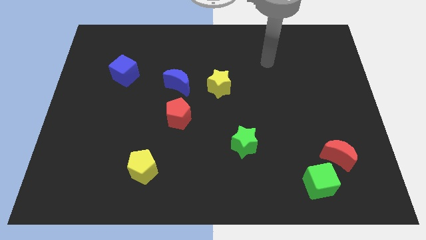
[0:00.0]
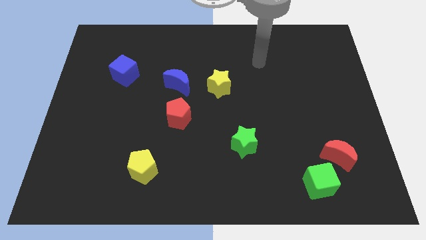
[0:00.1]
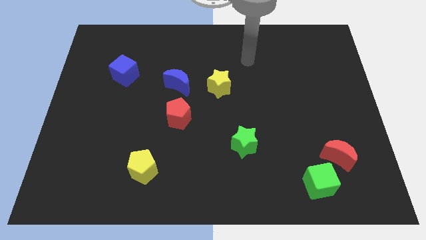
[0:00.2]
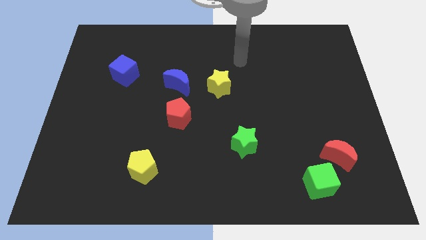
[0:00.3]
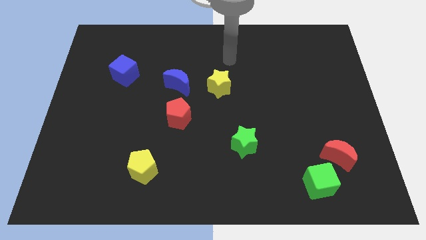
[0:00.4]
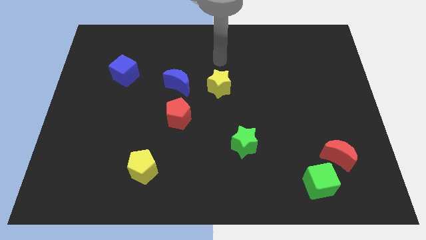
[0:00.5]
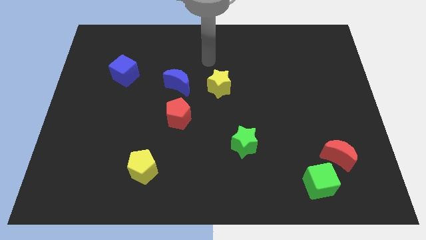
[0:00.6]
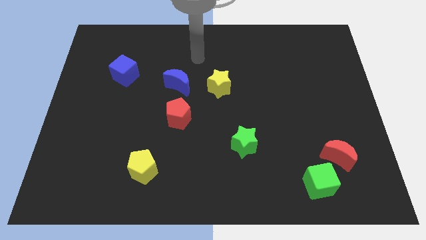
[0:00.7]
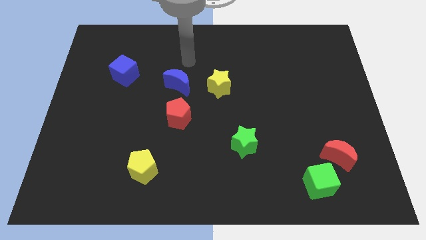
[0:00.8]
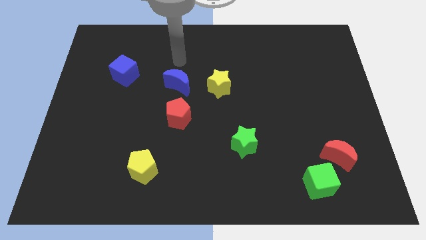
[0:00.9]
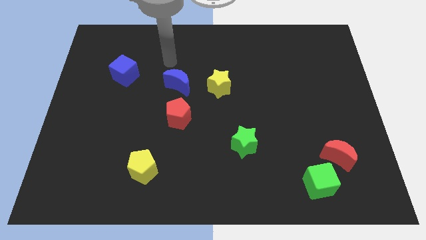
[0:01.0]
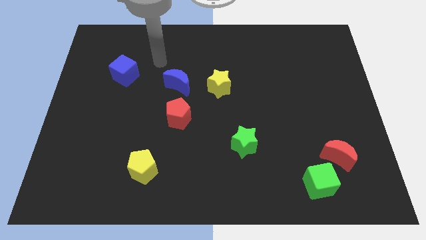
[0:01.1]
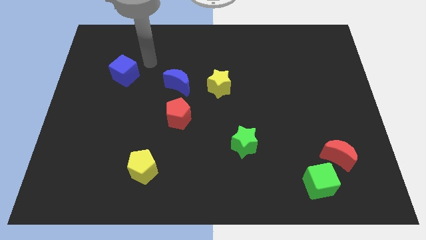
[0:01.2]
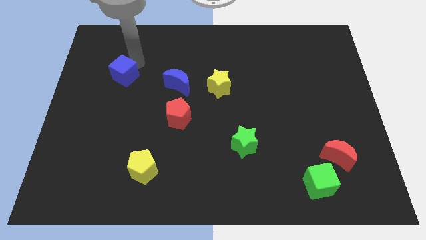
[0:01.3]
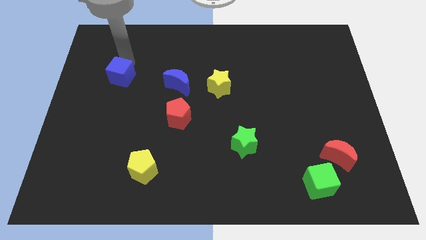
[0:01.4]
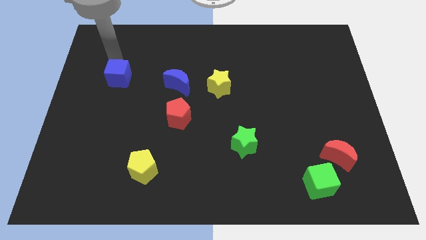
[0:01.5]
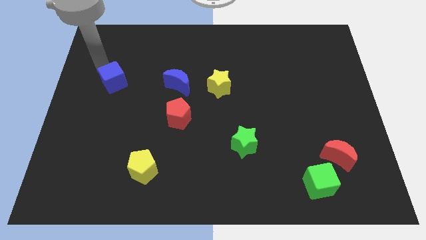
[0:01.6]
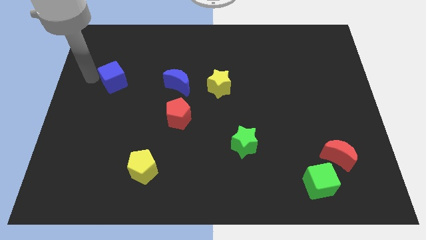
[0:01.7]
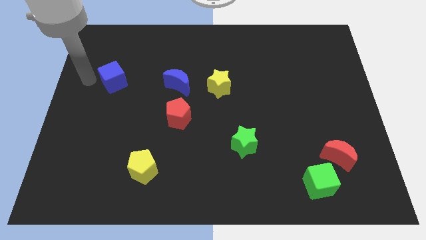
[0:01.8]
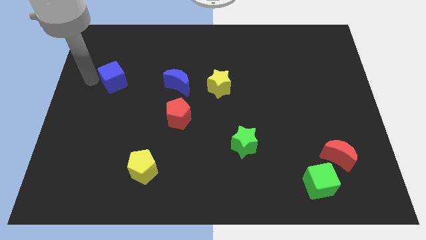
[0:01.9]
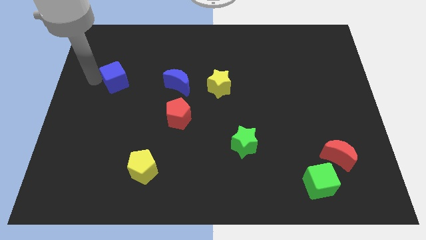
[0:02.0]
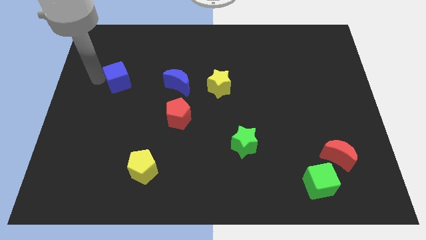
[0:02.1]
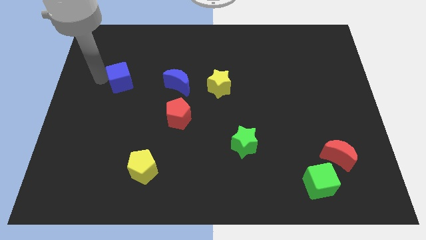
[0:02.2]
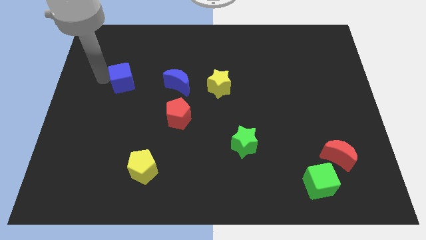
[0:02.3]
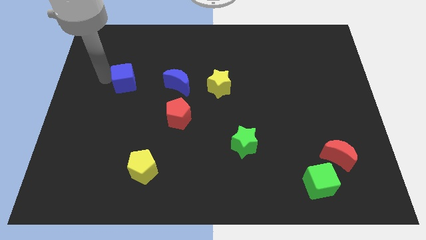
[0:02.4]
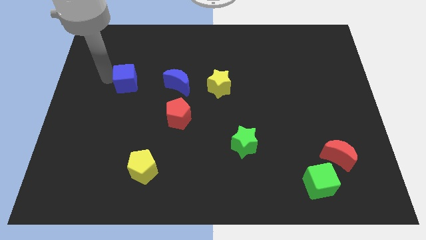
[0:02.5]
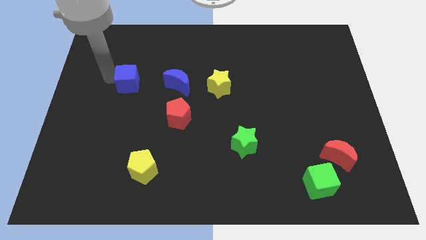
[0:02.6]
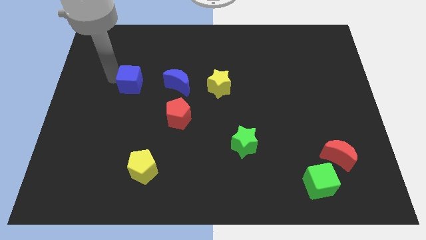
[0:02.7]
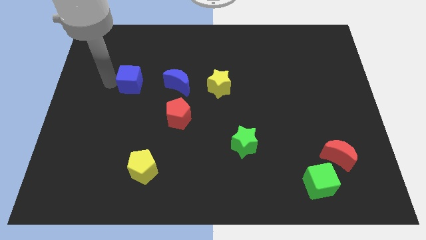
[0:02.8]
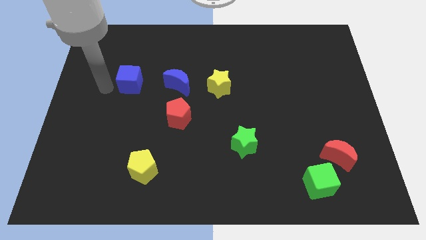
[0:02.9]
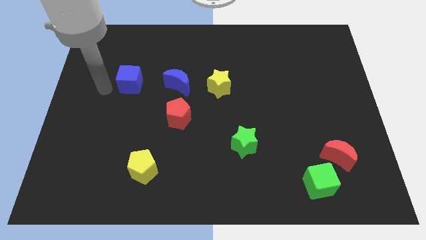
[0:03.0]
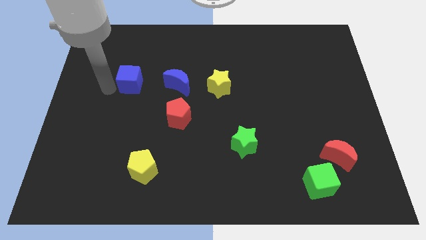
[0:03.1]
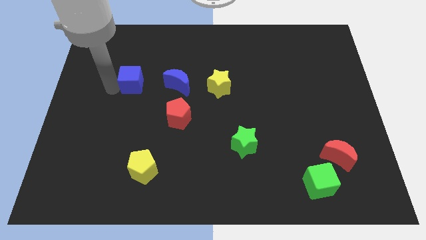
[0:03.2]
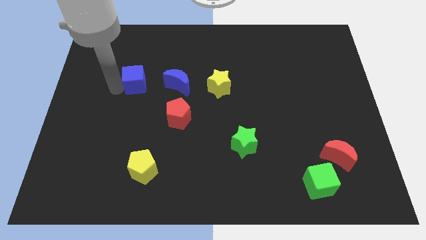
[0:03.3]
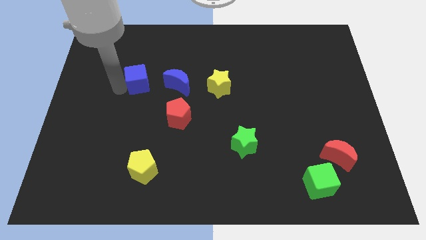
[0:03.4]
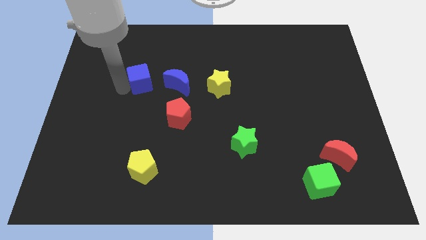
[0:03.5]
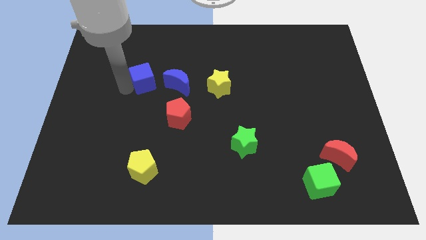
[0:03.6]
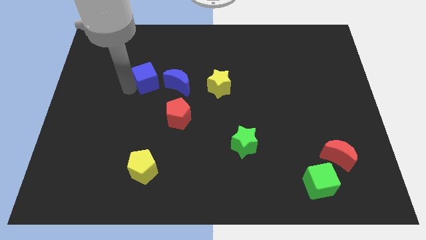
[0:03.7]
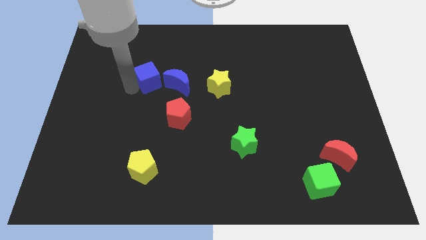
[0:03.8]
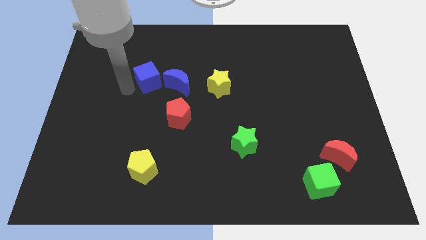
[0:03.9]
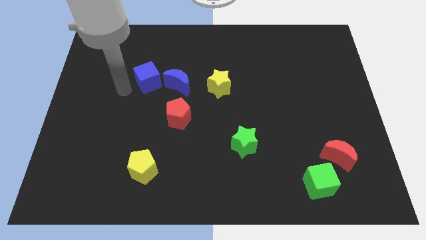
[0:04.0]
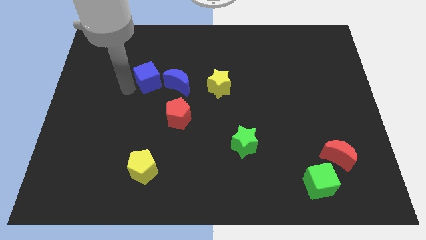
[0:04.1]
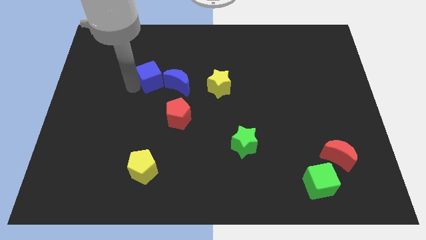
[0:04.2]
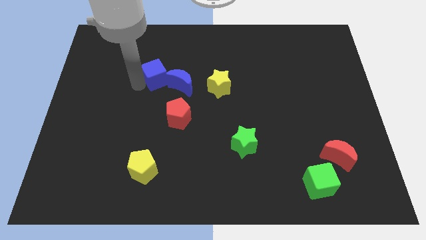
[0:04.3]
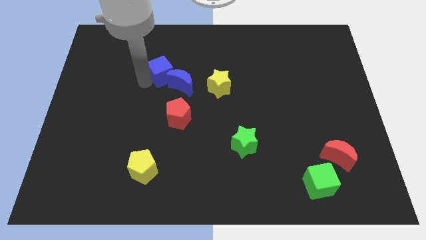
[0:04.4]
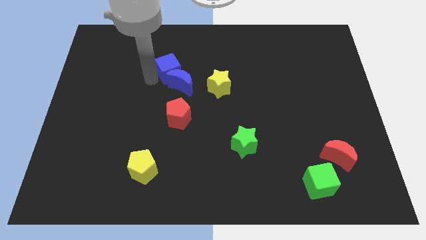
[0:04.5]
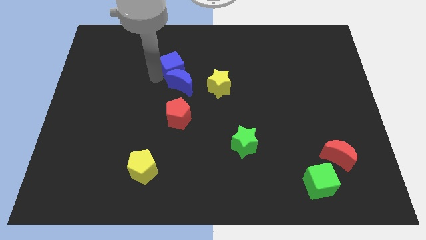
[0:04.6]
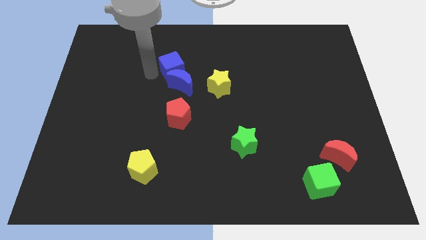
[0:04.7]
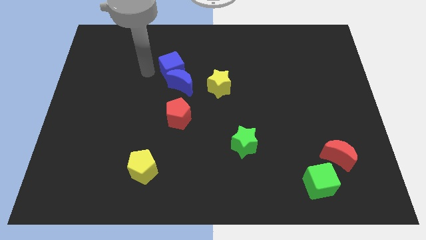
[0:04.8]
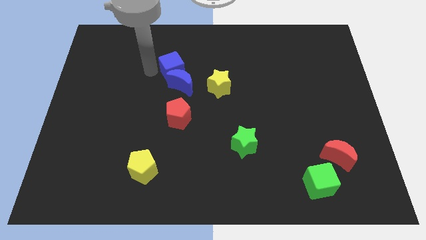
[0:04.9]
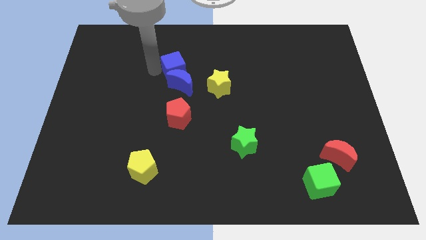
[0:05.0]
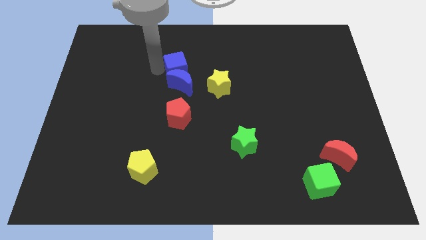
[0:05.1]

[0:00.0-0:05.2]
push the blue cube diagonally up and to the right of the blue moon

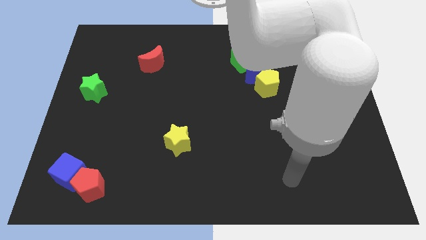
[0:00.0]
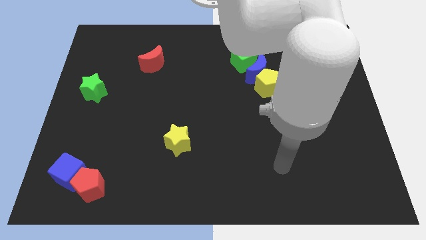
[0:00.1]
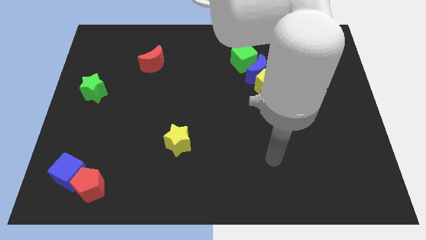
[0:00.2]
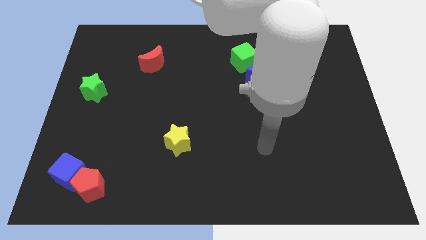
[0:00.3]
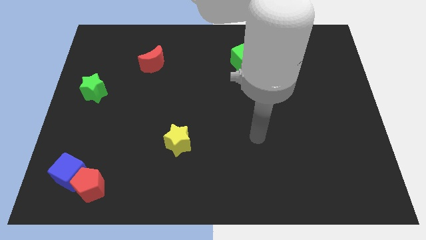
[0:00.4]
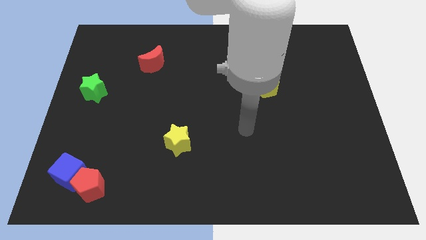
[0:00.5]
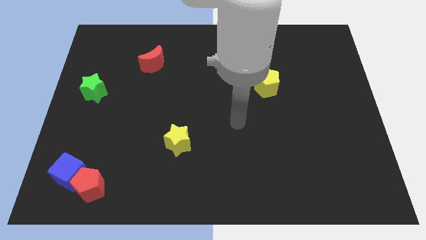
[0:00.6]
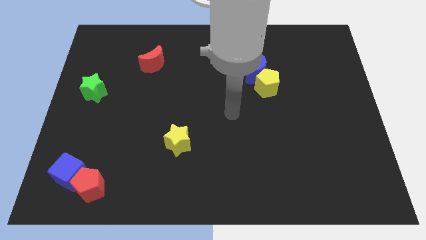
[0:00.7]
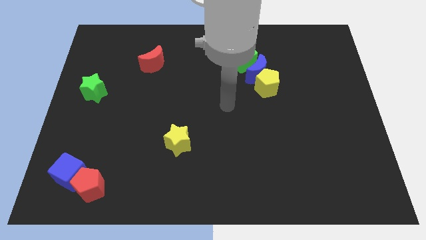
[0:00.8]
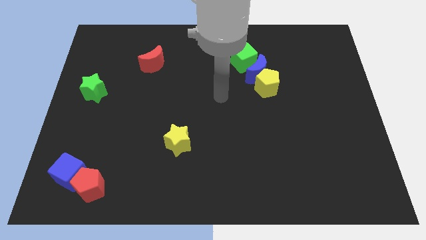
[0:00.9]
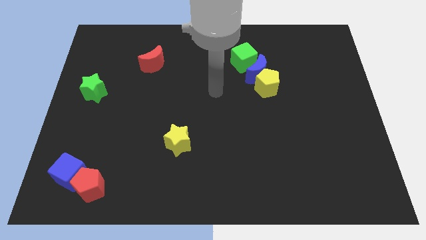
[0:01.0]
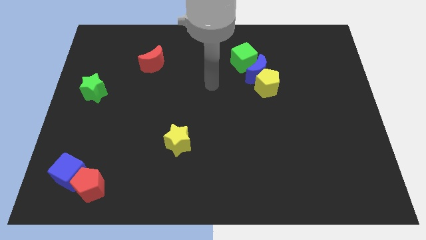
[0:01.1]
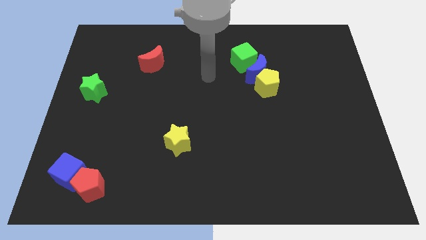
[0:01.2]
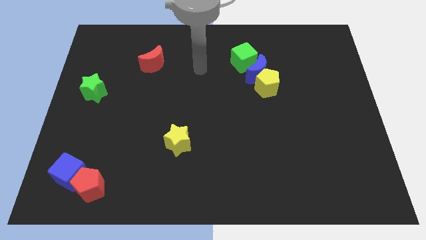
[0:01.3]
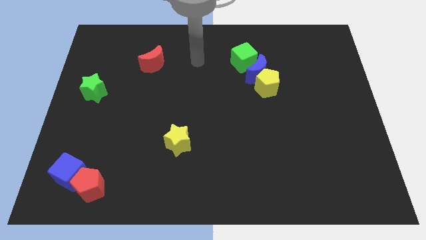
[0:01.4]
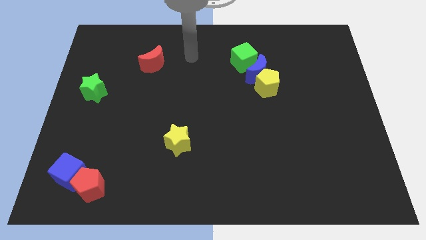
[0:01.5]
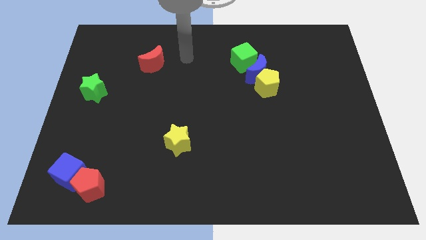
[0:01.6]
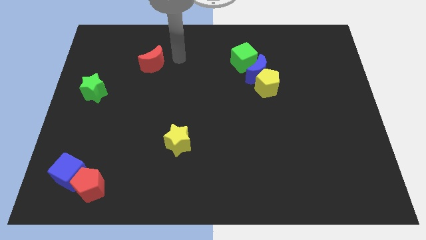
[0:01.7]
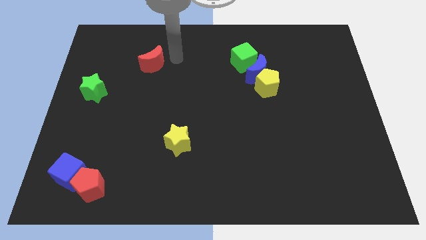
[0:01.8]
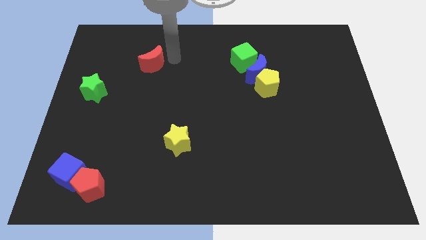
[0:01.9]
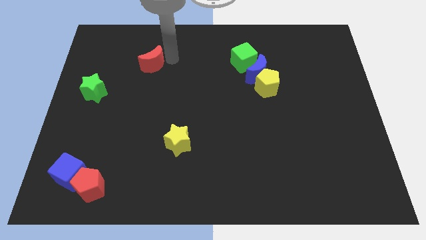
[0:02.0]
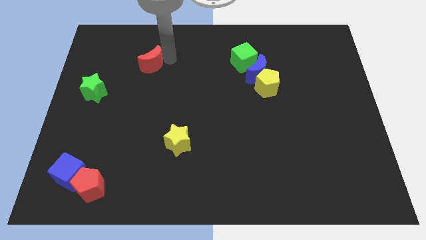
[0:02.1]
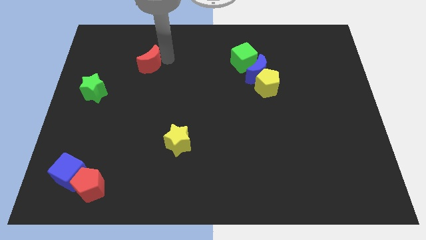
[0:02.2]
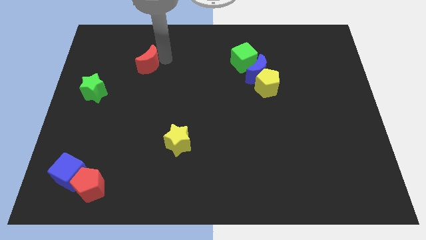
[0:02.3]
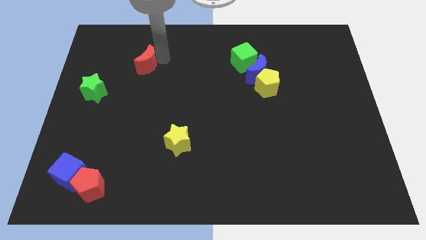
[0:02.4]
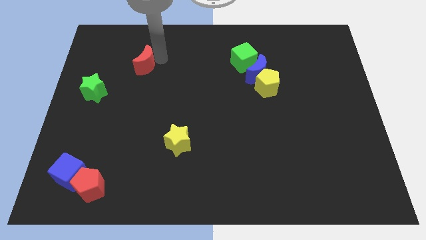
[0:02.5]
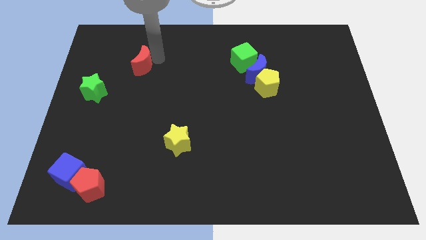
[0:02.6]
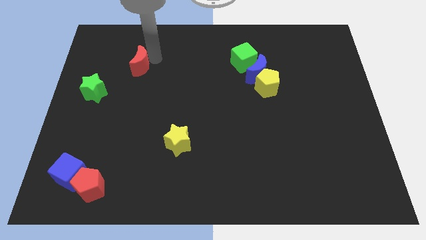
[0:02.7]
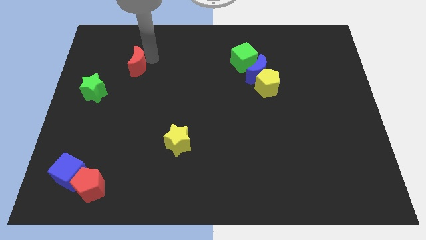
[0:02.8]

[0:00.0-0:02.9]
slide the red moon to the top right side of the green star
